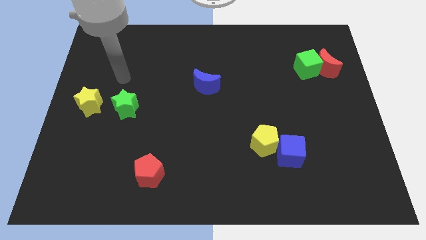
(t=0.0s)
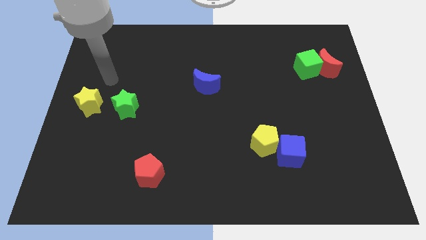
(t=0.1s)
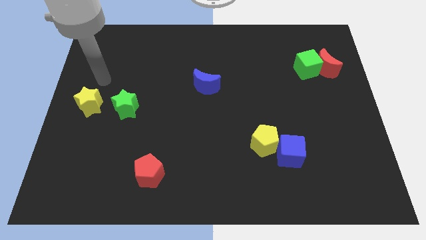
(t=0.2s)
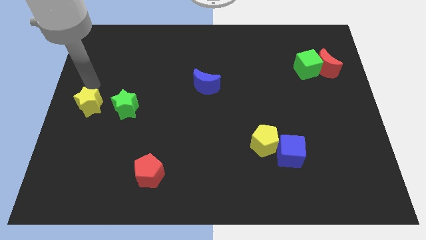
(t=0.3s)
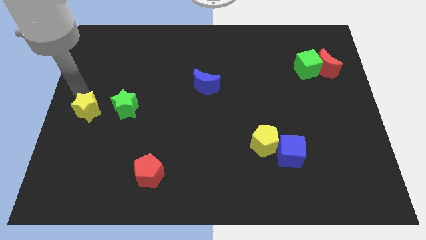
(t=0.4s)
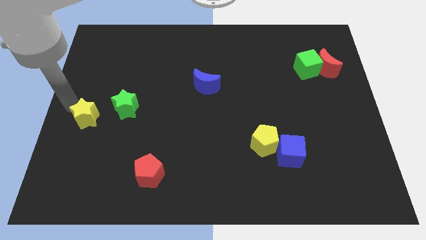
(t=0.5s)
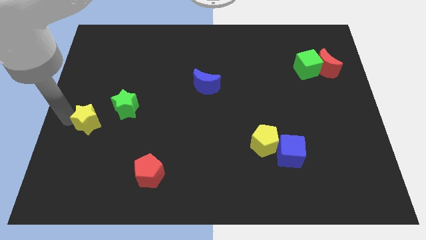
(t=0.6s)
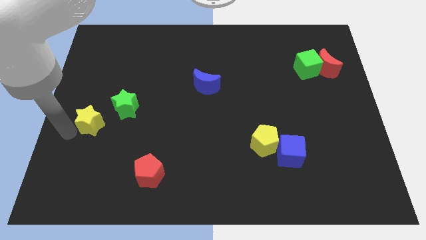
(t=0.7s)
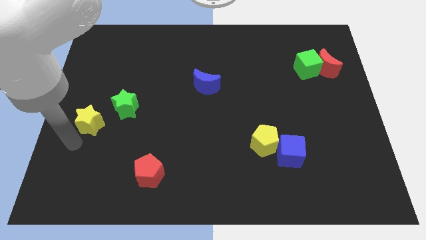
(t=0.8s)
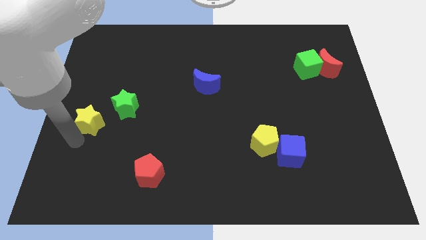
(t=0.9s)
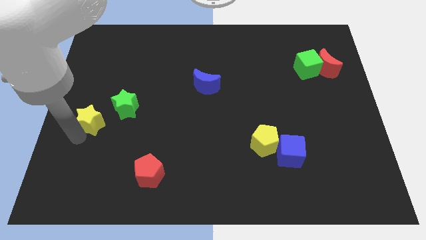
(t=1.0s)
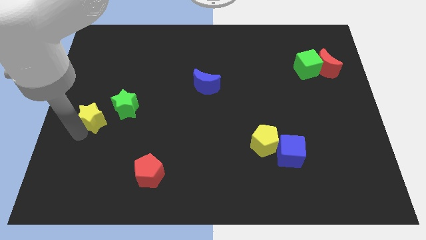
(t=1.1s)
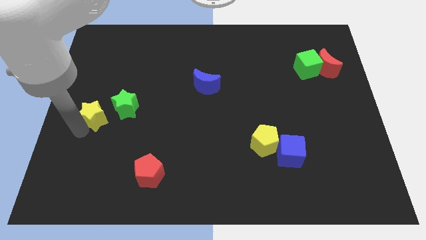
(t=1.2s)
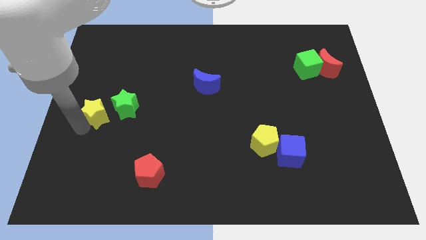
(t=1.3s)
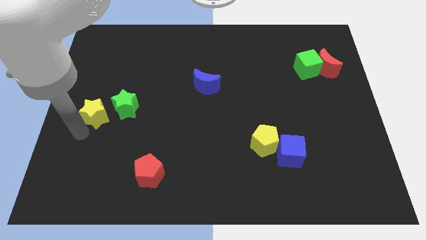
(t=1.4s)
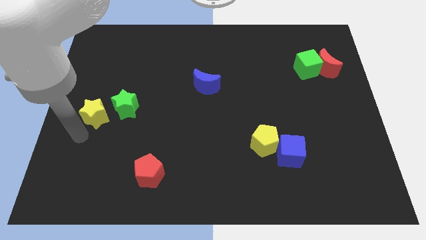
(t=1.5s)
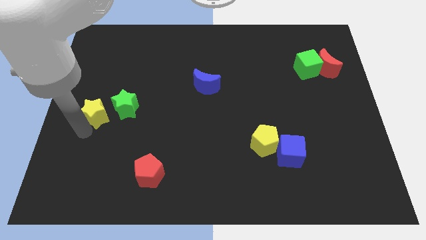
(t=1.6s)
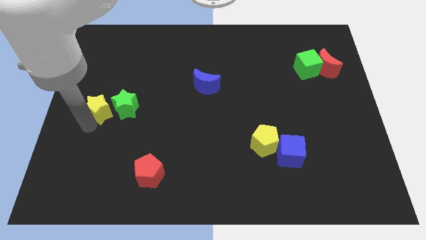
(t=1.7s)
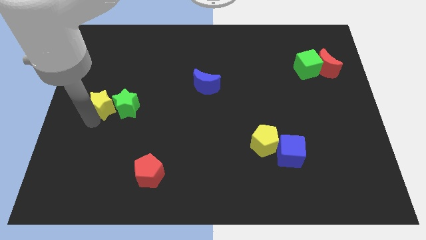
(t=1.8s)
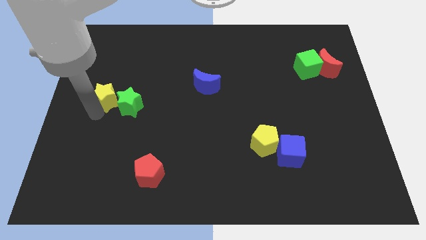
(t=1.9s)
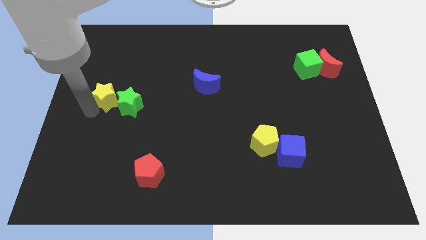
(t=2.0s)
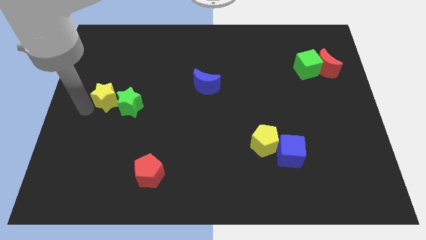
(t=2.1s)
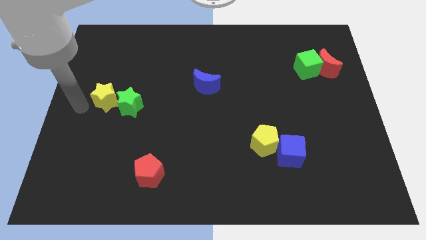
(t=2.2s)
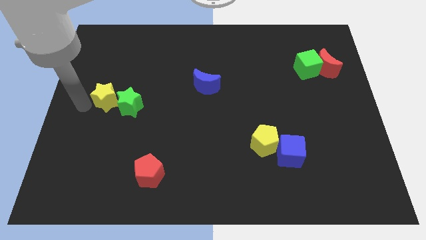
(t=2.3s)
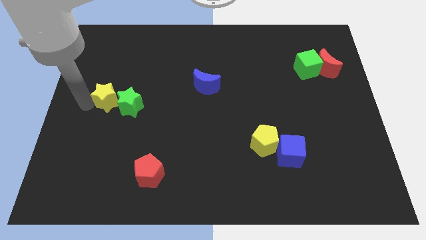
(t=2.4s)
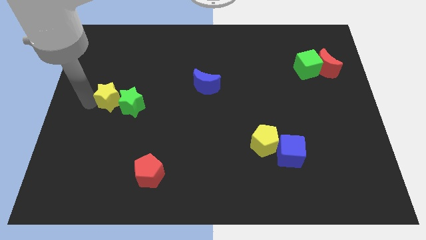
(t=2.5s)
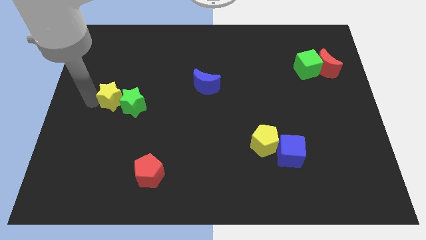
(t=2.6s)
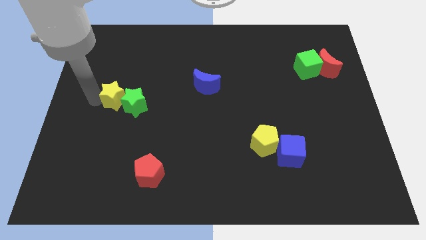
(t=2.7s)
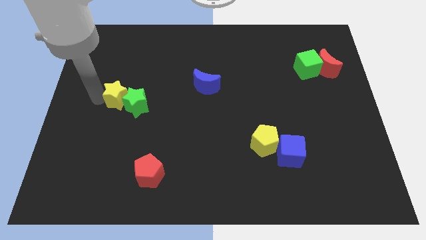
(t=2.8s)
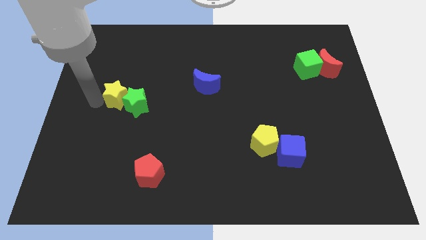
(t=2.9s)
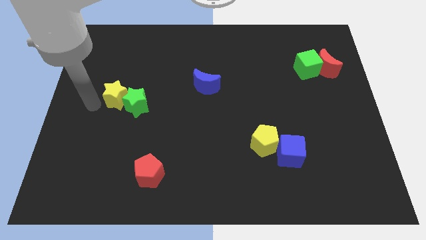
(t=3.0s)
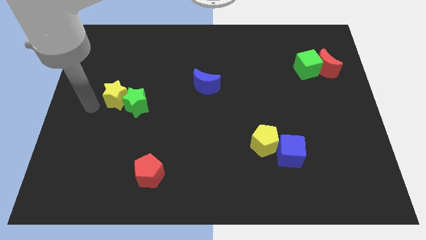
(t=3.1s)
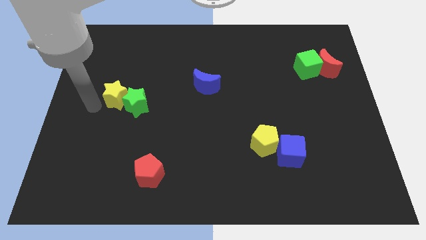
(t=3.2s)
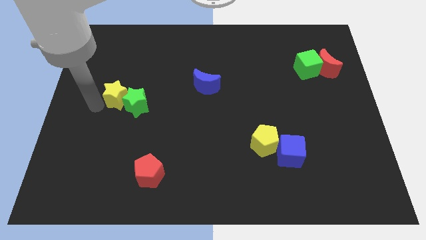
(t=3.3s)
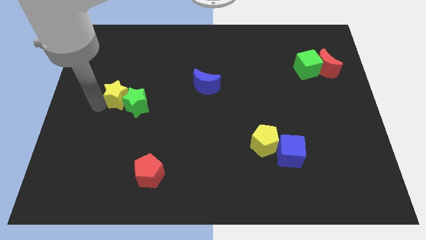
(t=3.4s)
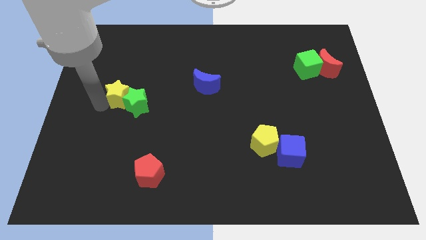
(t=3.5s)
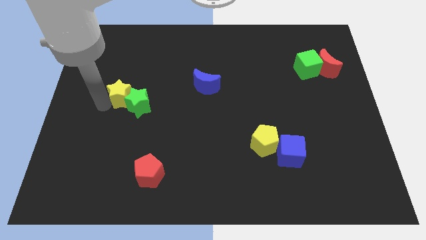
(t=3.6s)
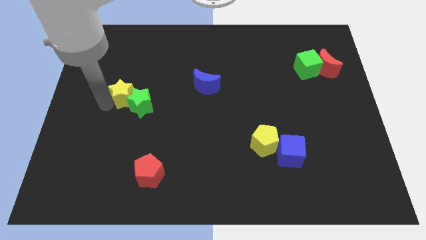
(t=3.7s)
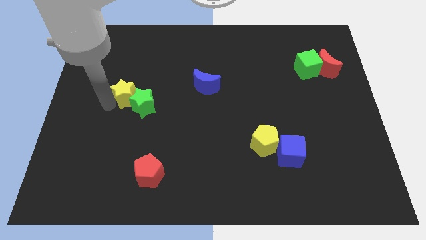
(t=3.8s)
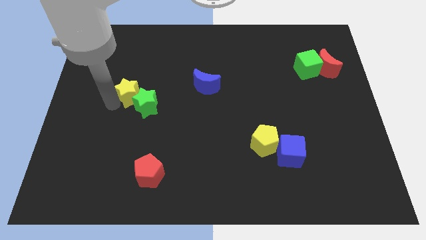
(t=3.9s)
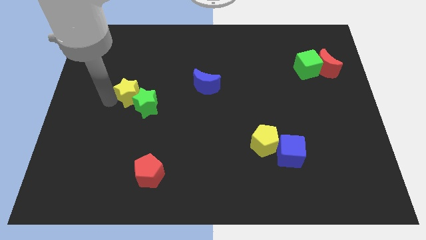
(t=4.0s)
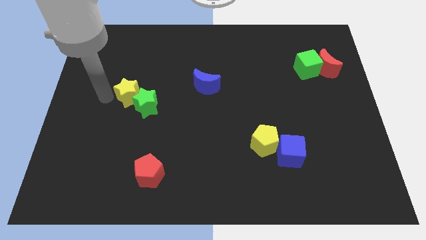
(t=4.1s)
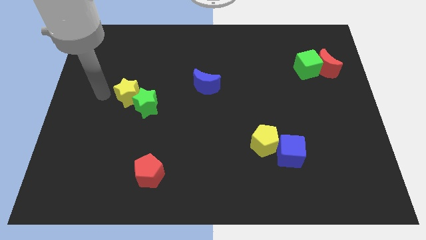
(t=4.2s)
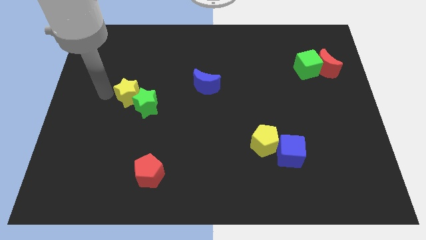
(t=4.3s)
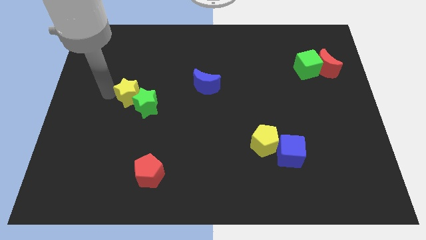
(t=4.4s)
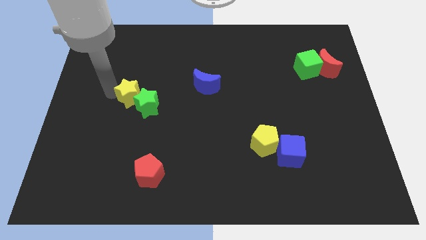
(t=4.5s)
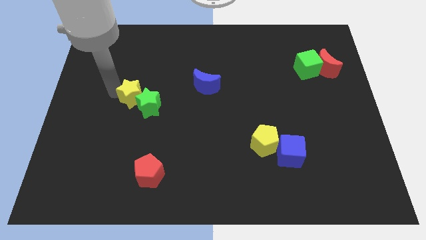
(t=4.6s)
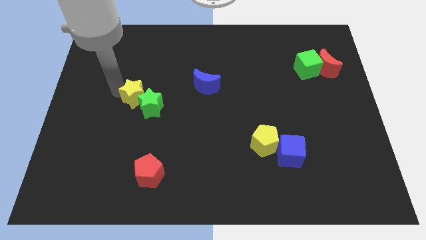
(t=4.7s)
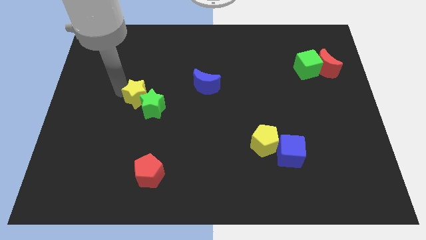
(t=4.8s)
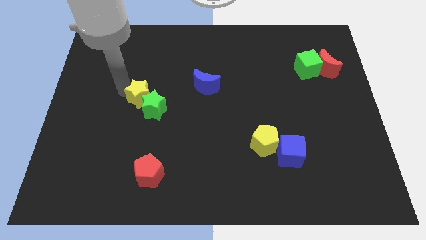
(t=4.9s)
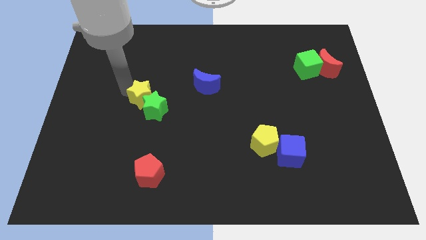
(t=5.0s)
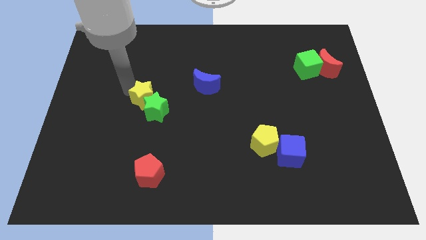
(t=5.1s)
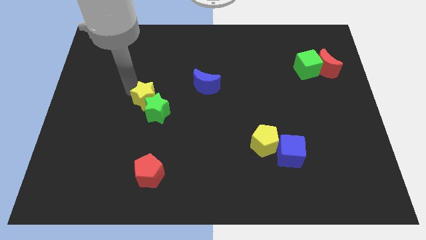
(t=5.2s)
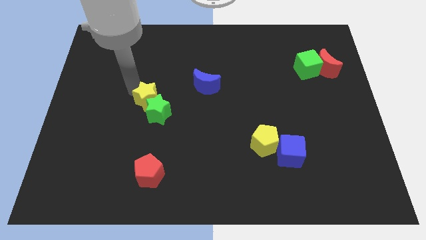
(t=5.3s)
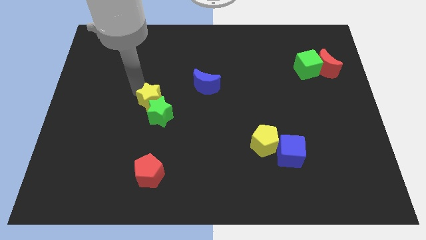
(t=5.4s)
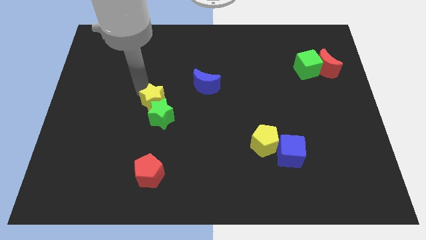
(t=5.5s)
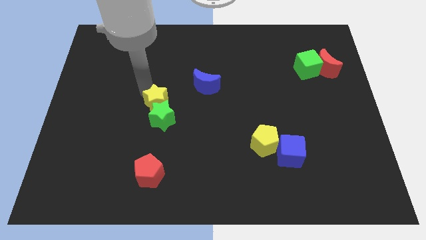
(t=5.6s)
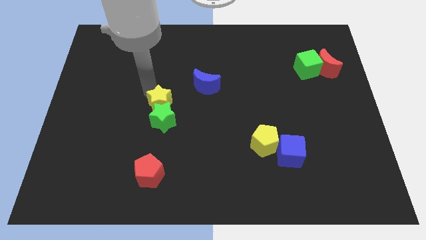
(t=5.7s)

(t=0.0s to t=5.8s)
push the yellow star to the center of the board

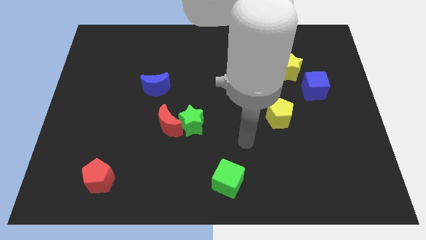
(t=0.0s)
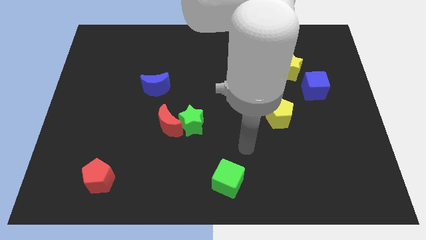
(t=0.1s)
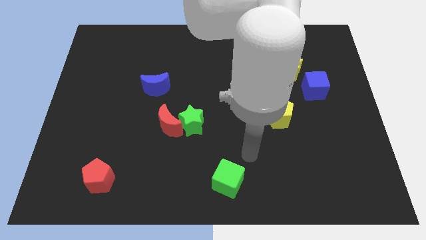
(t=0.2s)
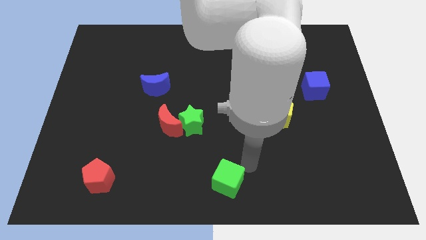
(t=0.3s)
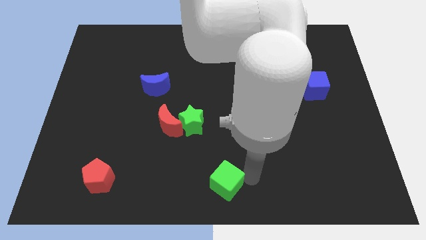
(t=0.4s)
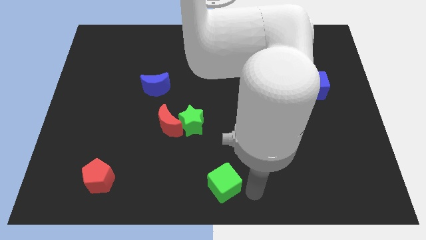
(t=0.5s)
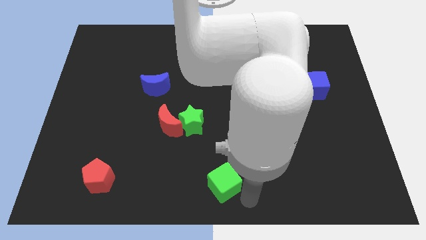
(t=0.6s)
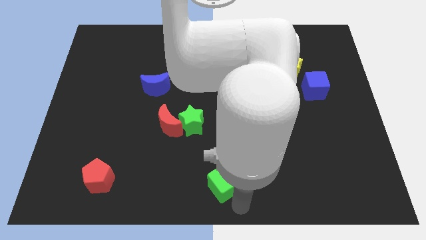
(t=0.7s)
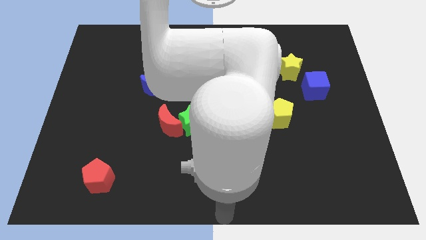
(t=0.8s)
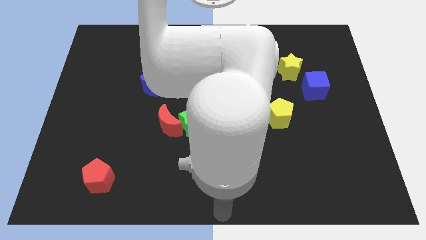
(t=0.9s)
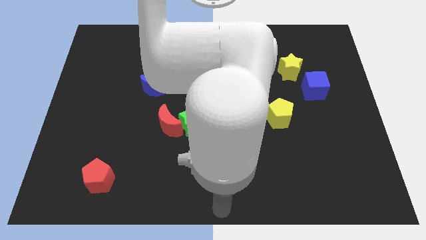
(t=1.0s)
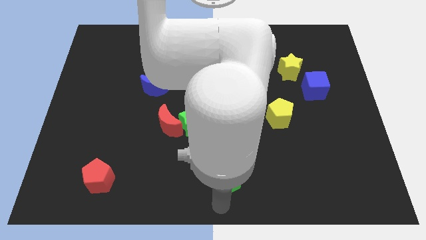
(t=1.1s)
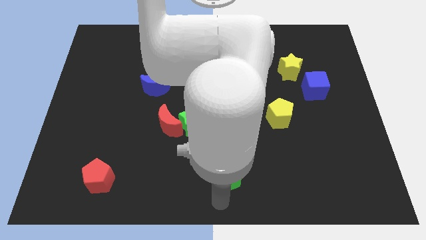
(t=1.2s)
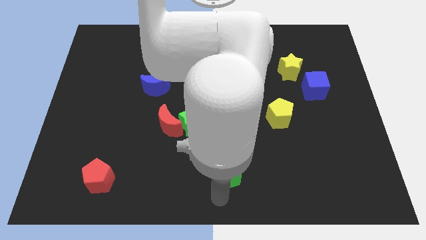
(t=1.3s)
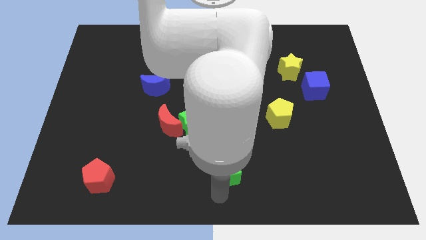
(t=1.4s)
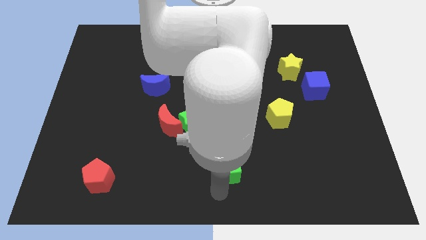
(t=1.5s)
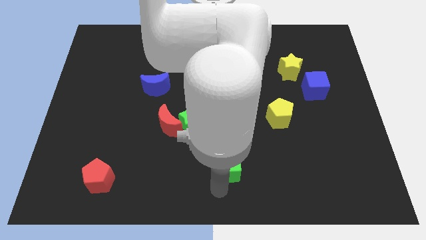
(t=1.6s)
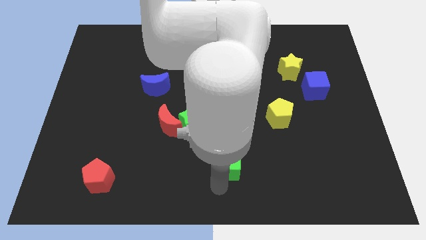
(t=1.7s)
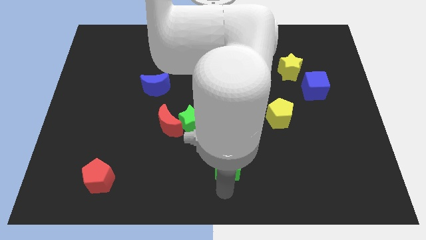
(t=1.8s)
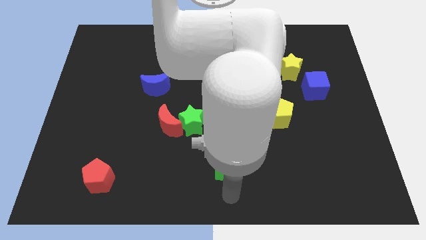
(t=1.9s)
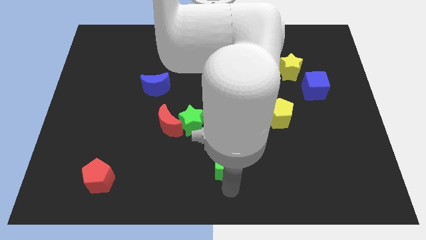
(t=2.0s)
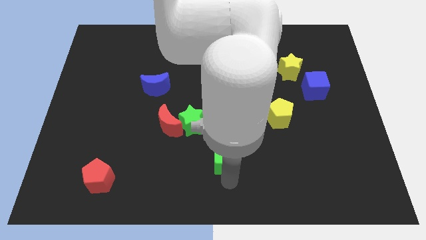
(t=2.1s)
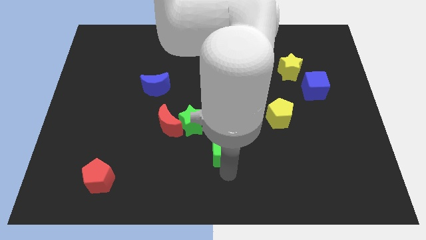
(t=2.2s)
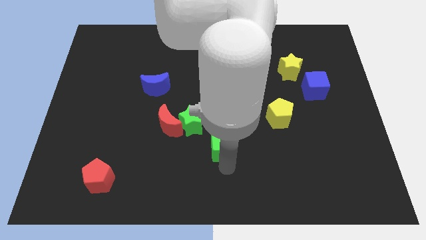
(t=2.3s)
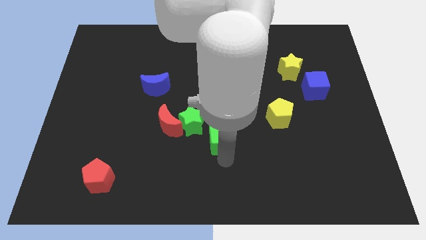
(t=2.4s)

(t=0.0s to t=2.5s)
slide the green cube to the center of the board
